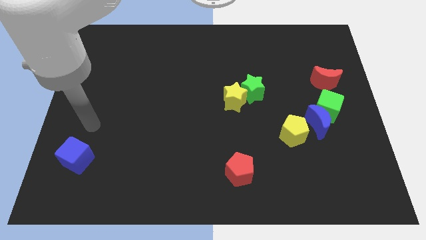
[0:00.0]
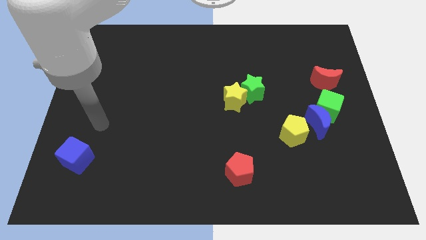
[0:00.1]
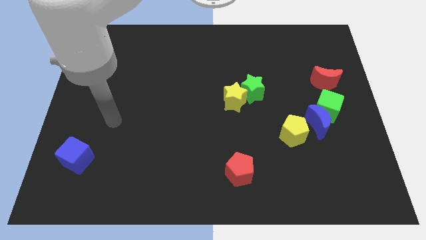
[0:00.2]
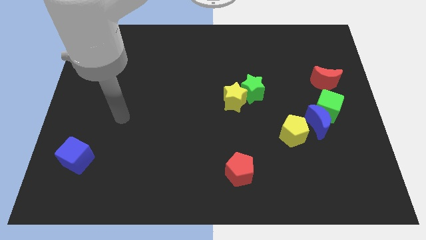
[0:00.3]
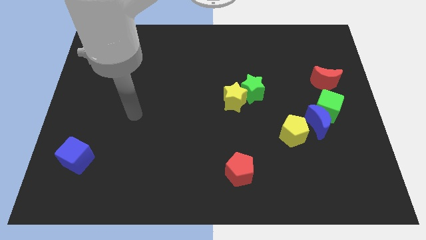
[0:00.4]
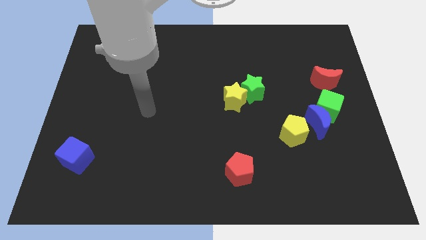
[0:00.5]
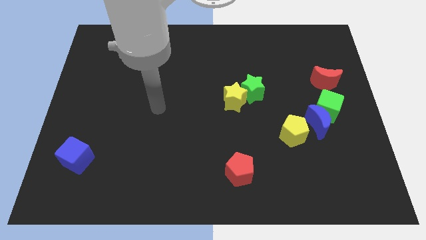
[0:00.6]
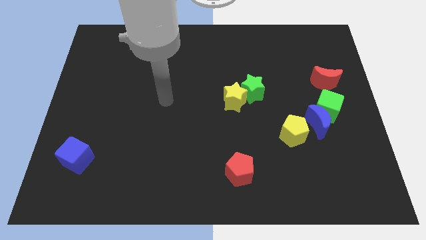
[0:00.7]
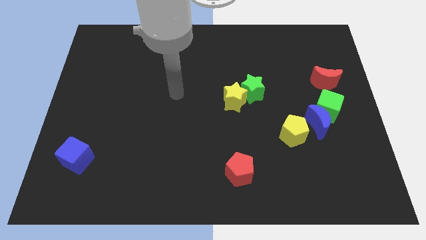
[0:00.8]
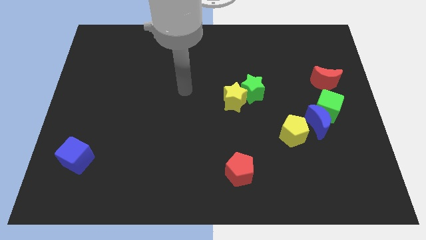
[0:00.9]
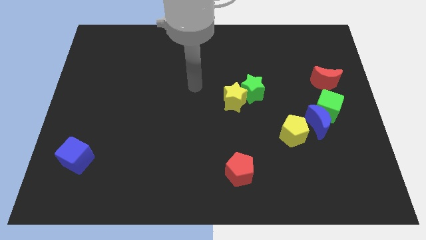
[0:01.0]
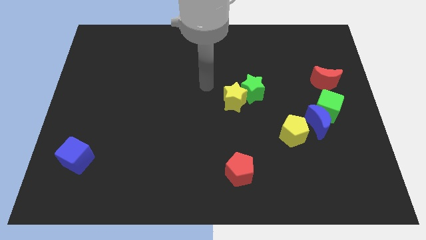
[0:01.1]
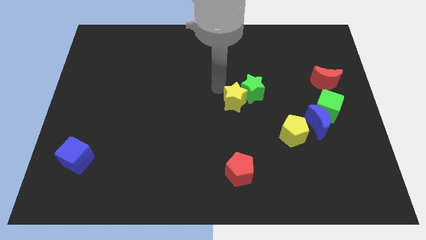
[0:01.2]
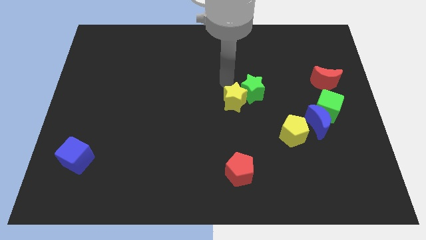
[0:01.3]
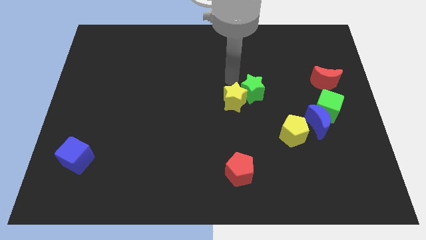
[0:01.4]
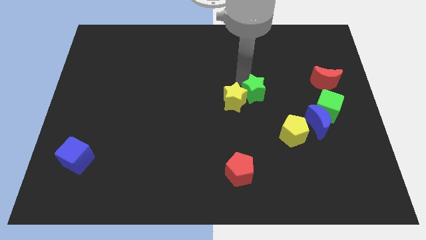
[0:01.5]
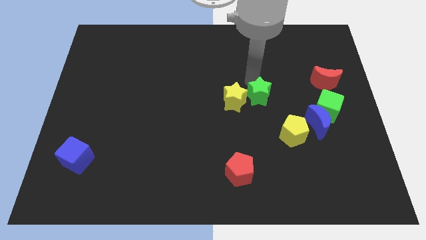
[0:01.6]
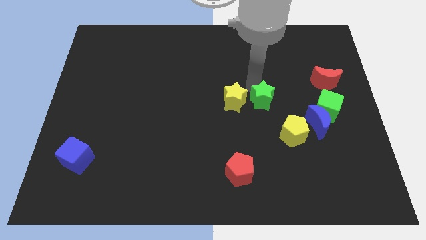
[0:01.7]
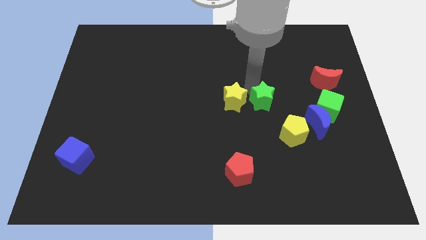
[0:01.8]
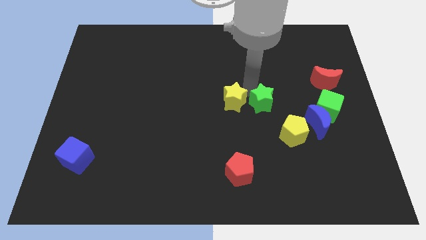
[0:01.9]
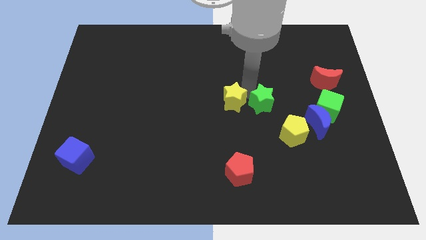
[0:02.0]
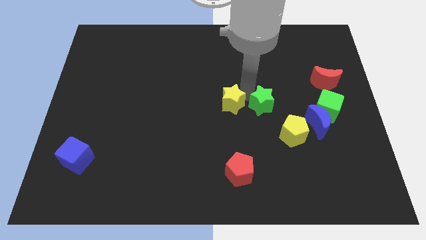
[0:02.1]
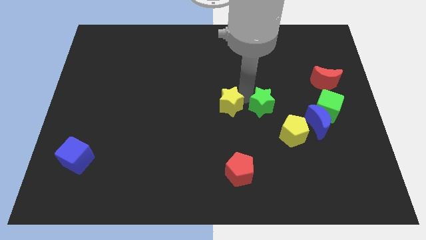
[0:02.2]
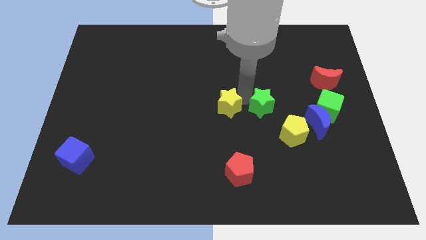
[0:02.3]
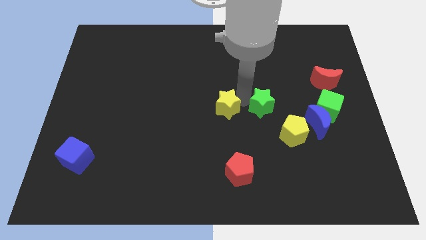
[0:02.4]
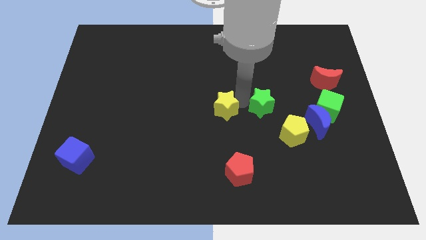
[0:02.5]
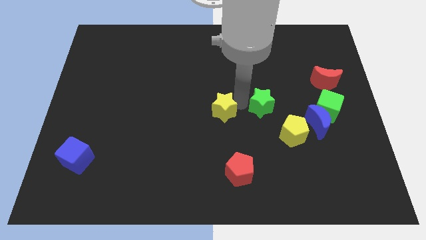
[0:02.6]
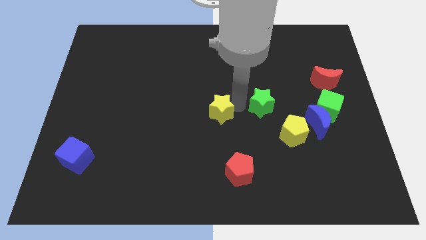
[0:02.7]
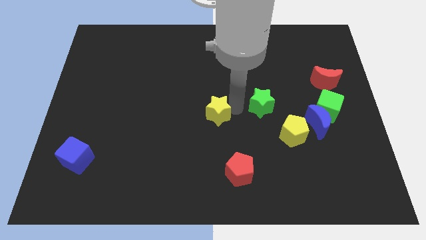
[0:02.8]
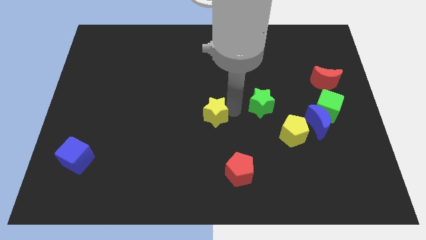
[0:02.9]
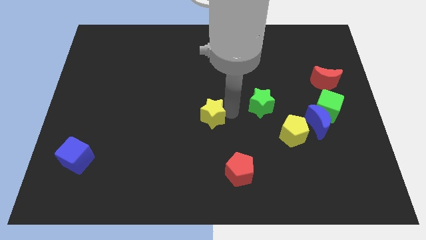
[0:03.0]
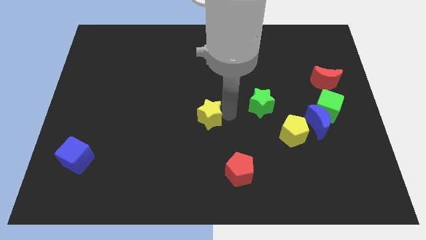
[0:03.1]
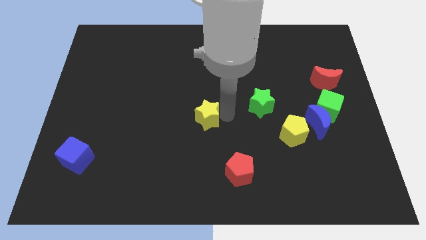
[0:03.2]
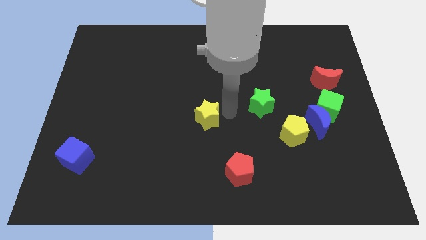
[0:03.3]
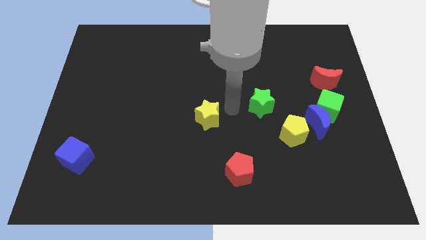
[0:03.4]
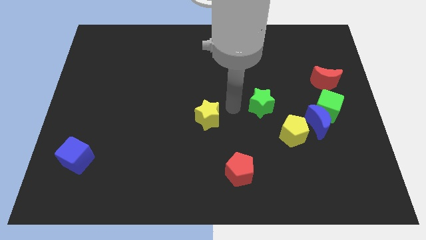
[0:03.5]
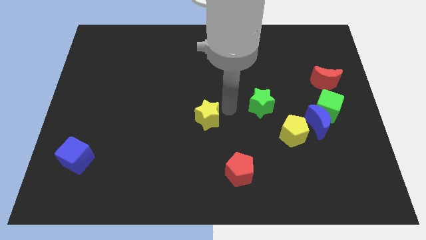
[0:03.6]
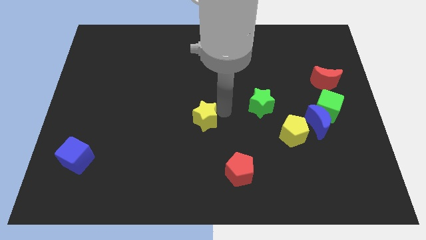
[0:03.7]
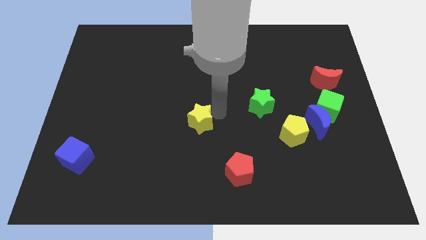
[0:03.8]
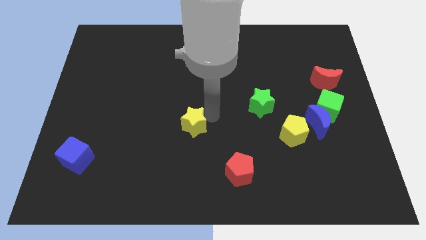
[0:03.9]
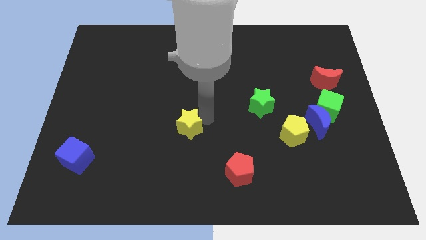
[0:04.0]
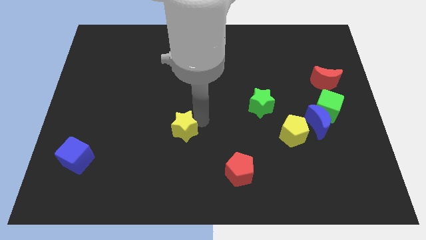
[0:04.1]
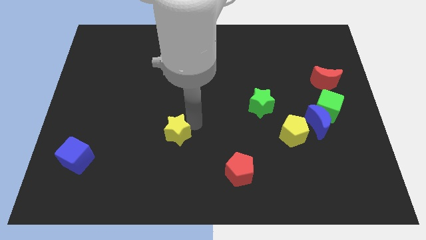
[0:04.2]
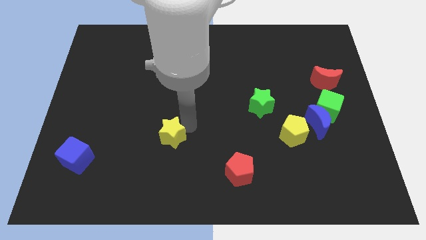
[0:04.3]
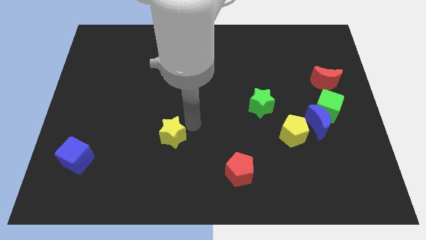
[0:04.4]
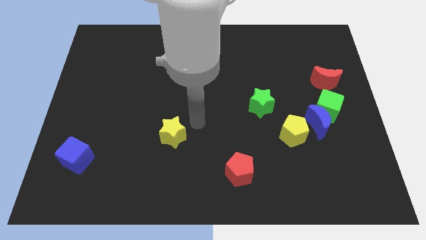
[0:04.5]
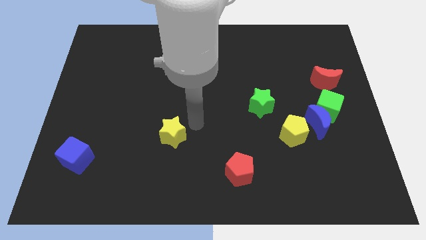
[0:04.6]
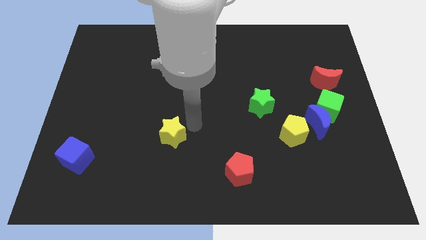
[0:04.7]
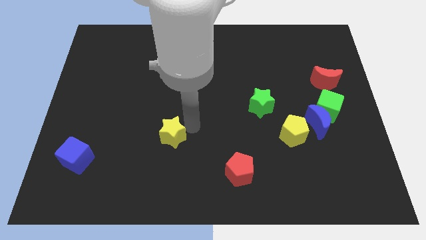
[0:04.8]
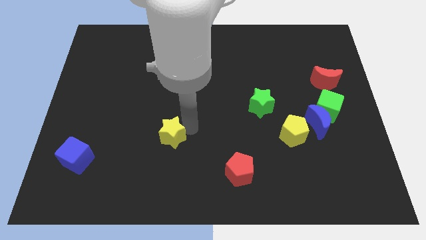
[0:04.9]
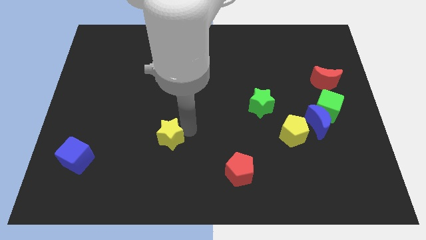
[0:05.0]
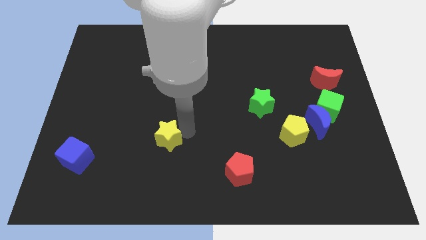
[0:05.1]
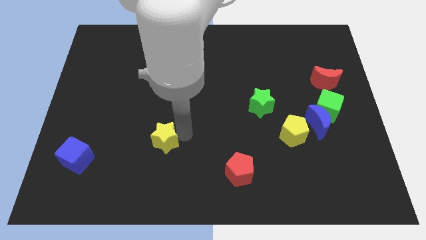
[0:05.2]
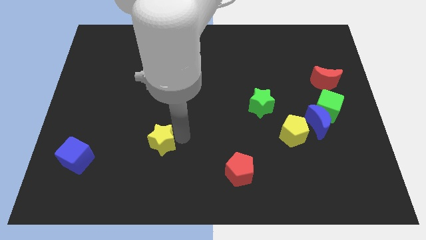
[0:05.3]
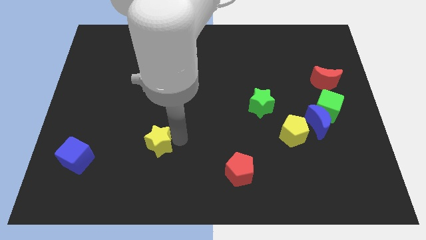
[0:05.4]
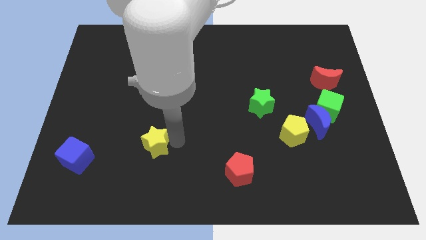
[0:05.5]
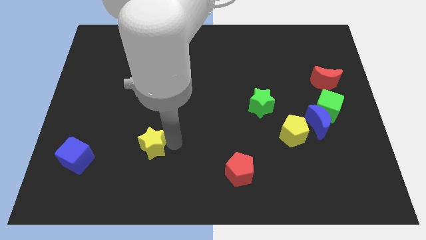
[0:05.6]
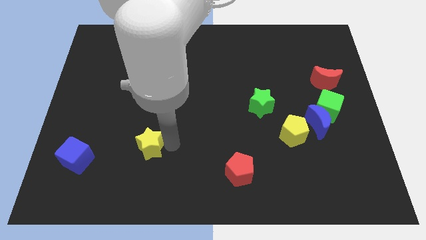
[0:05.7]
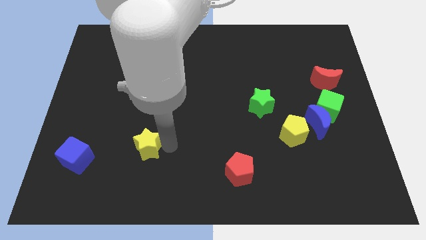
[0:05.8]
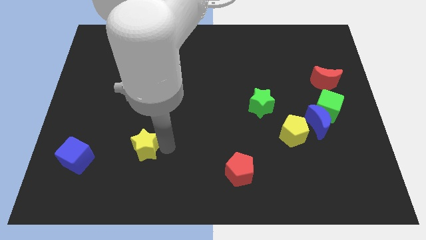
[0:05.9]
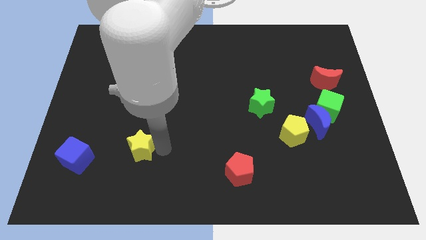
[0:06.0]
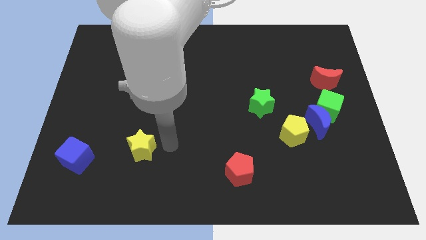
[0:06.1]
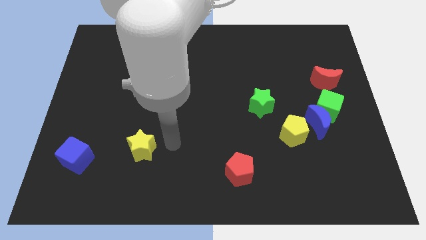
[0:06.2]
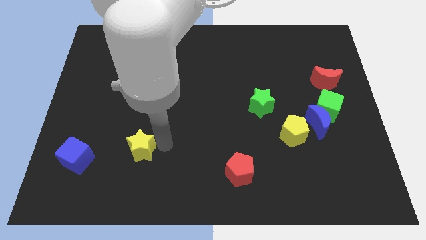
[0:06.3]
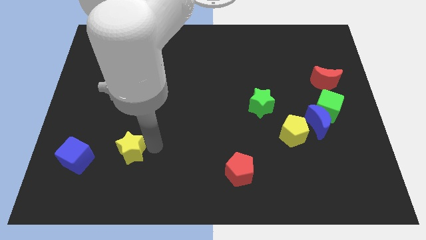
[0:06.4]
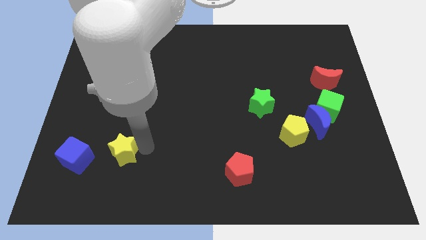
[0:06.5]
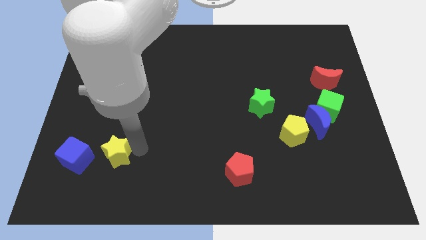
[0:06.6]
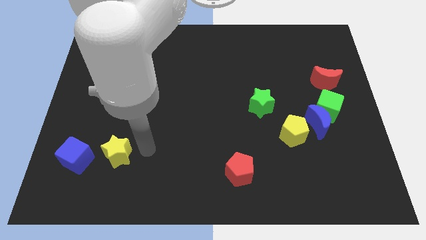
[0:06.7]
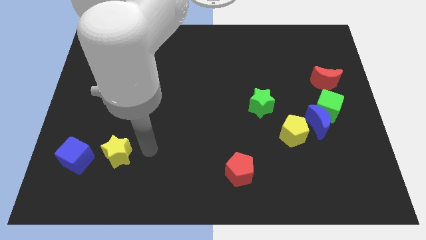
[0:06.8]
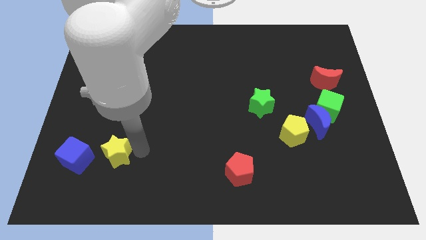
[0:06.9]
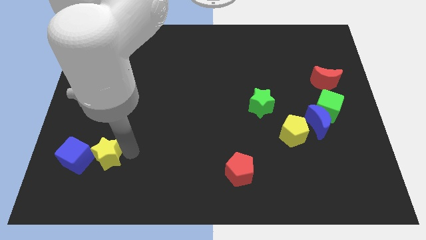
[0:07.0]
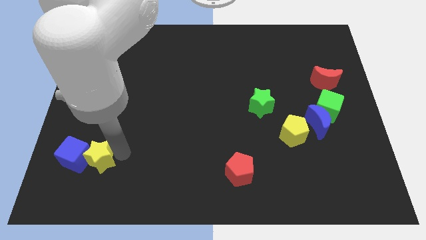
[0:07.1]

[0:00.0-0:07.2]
put the yellow star towards the blue cube

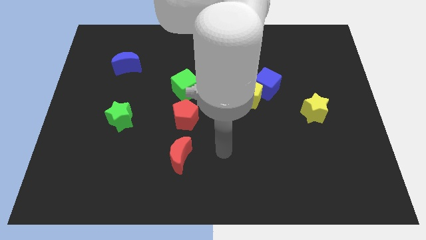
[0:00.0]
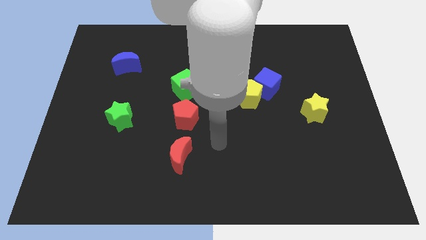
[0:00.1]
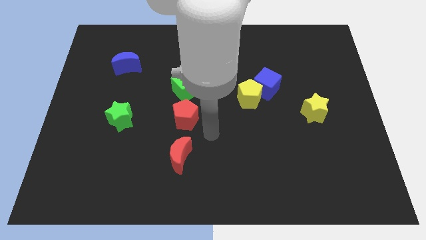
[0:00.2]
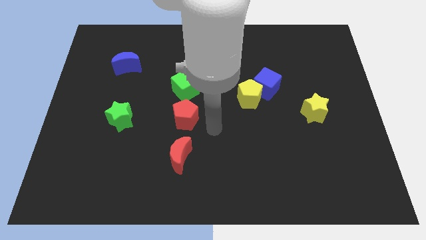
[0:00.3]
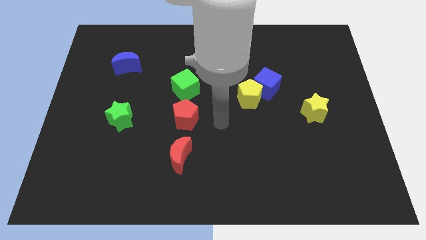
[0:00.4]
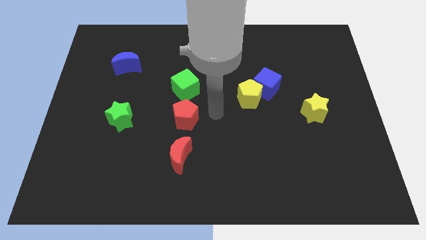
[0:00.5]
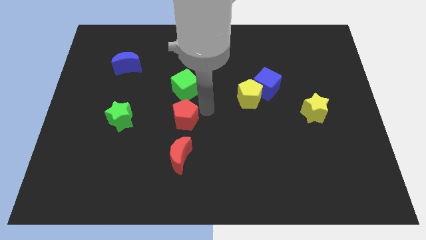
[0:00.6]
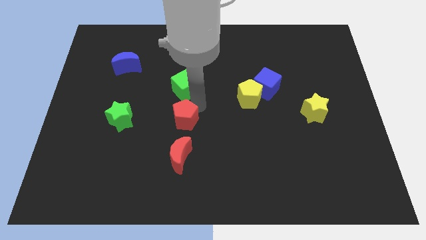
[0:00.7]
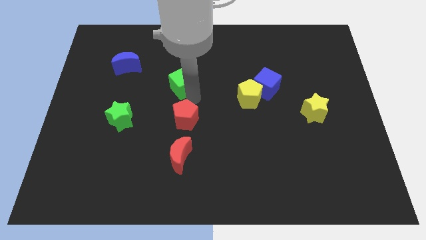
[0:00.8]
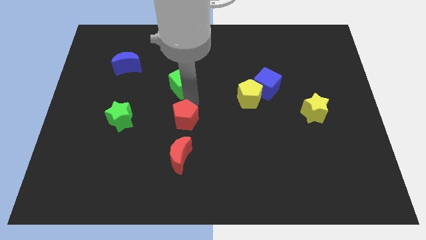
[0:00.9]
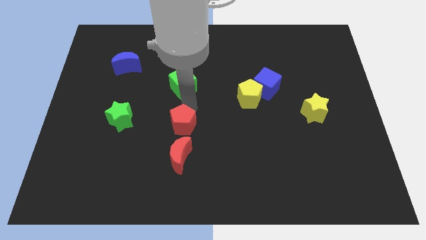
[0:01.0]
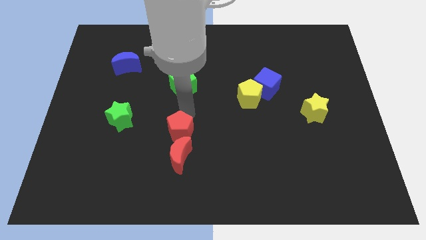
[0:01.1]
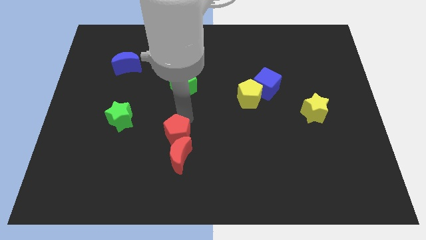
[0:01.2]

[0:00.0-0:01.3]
move the red pentagon next to the red moon
